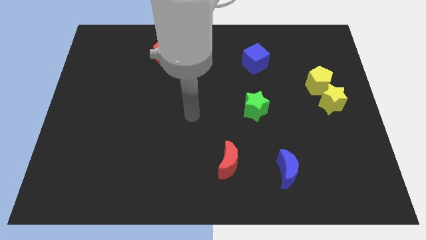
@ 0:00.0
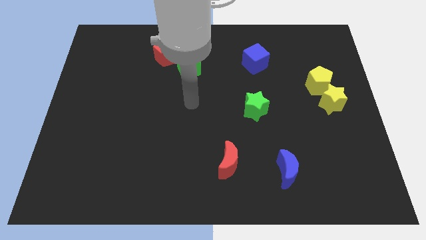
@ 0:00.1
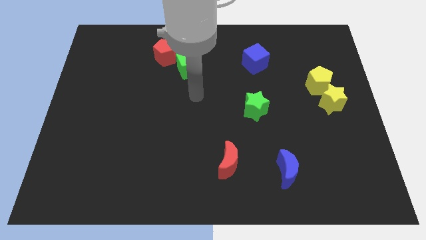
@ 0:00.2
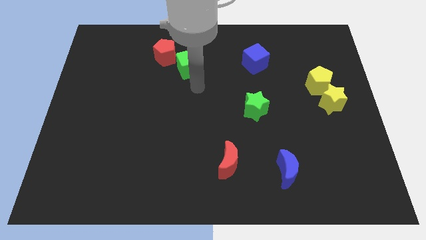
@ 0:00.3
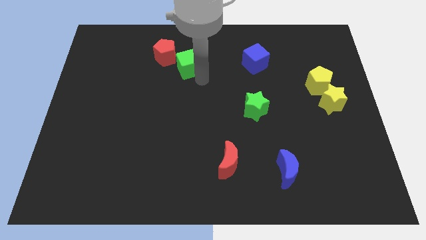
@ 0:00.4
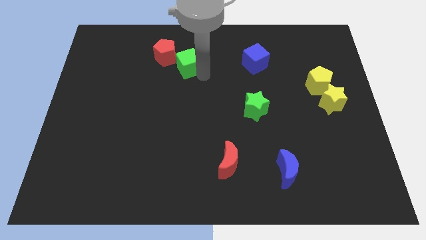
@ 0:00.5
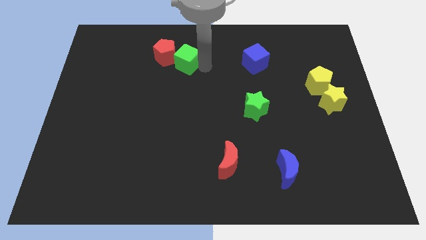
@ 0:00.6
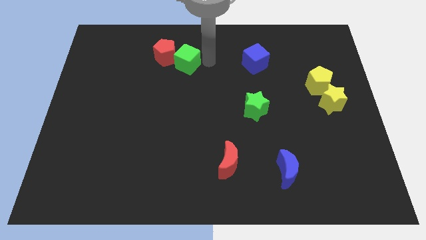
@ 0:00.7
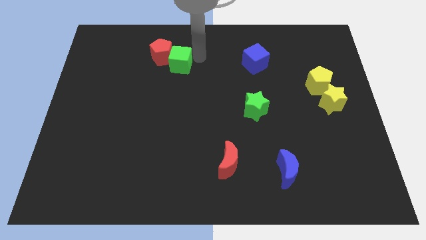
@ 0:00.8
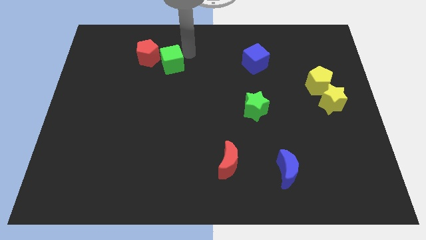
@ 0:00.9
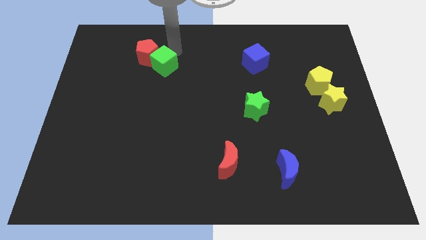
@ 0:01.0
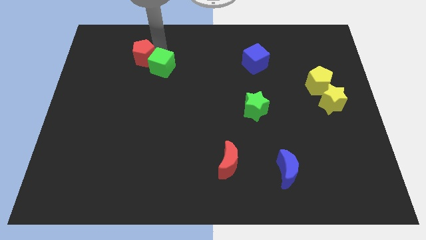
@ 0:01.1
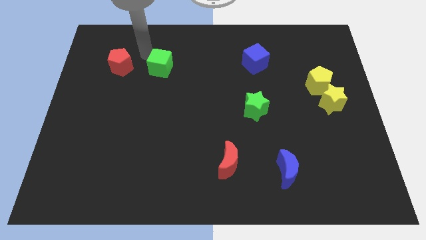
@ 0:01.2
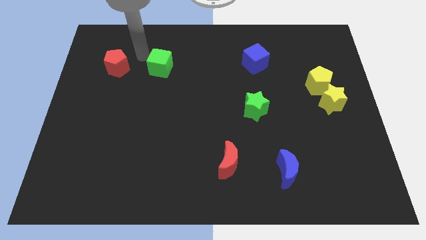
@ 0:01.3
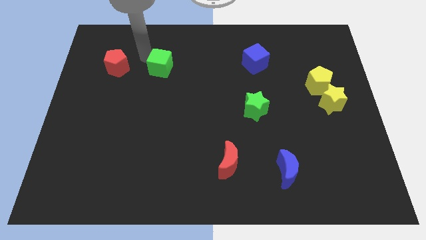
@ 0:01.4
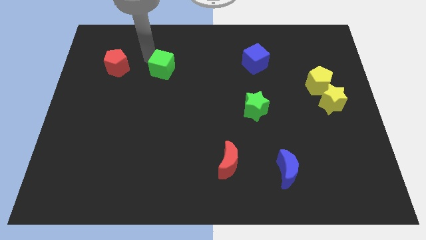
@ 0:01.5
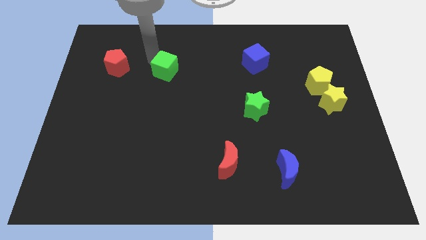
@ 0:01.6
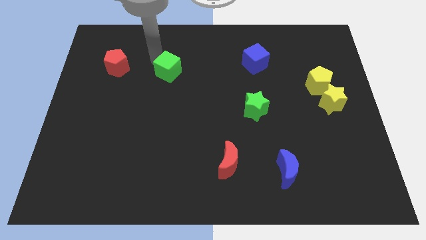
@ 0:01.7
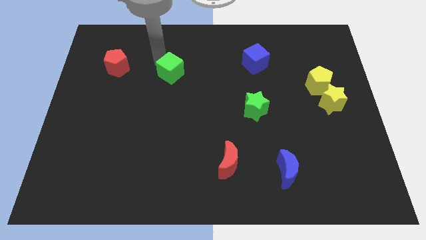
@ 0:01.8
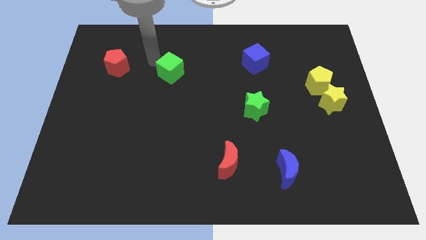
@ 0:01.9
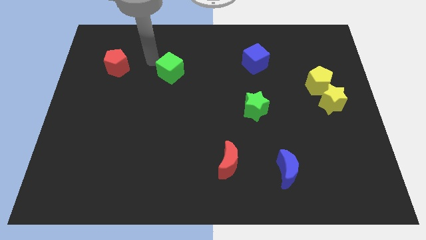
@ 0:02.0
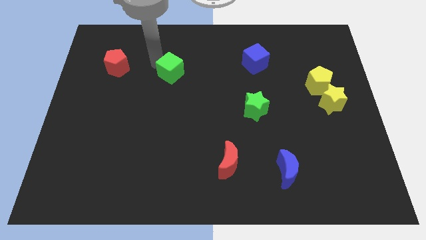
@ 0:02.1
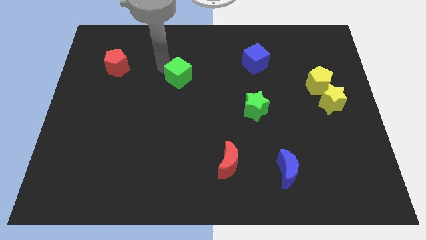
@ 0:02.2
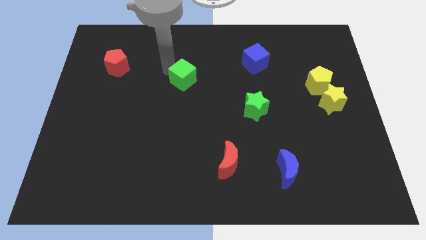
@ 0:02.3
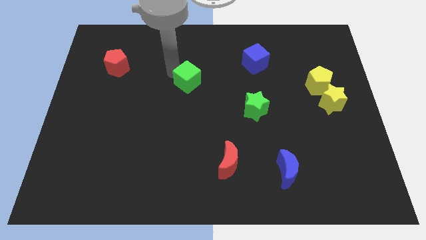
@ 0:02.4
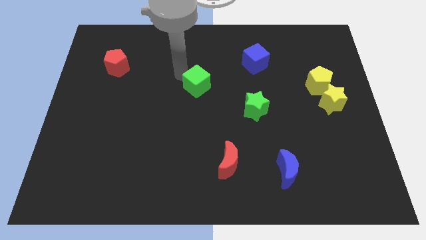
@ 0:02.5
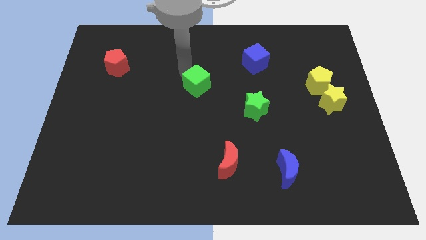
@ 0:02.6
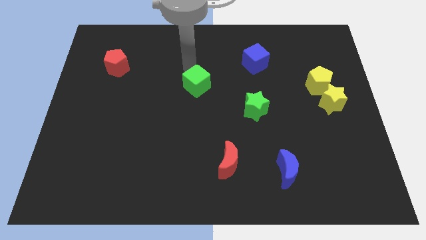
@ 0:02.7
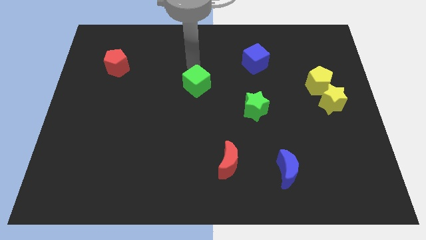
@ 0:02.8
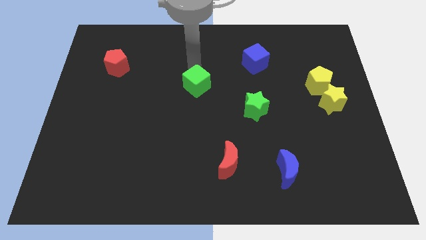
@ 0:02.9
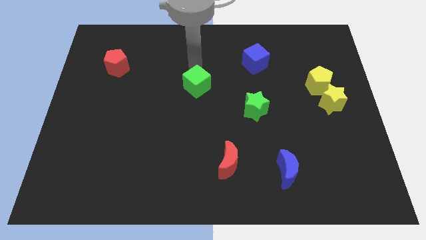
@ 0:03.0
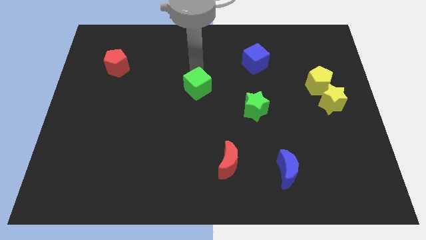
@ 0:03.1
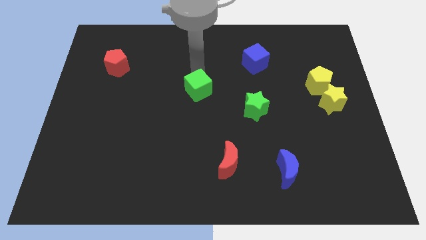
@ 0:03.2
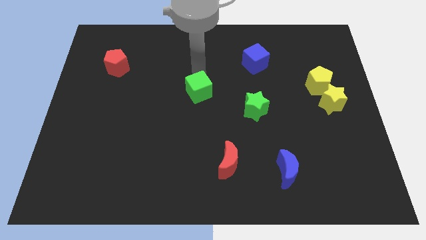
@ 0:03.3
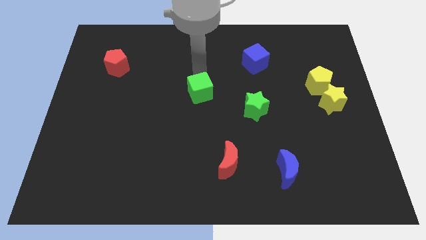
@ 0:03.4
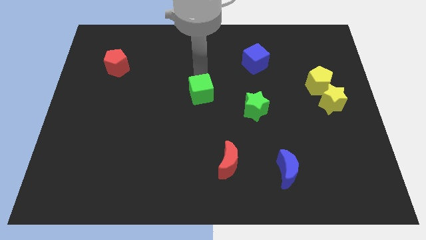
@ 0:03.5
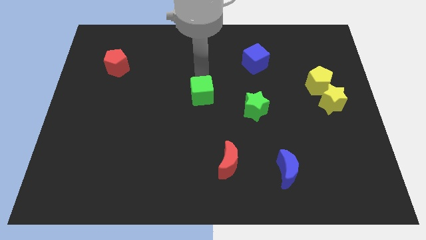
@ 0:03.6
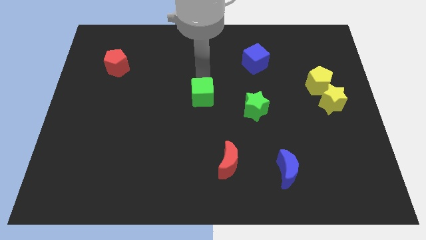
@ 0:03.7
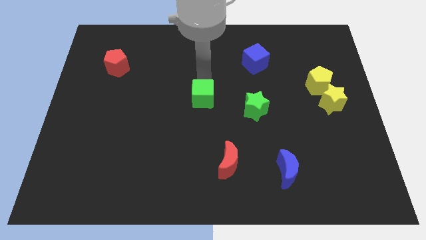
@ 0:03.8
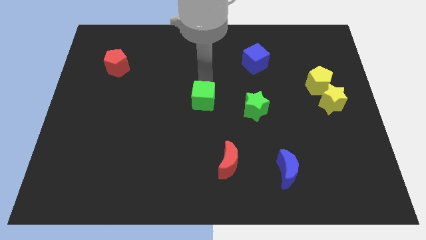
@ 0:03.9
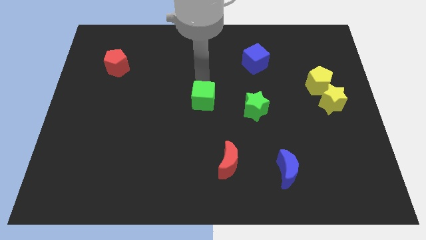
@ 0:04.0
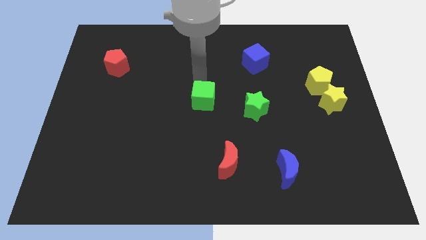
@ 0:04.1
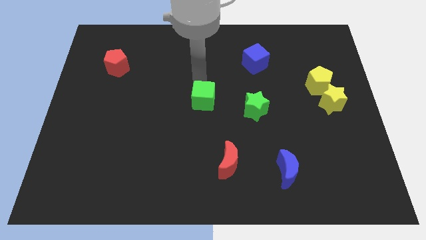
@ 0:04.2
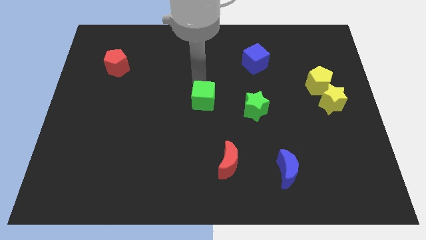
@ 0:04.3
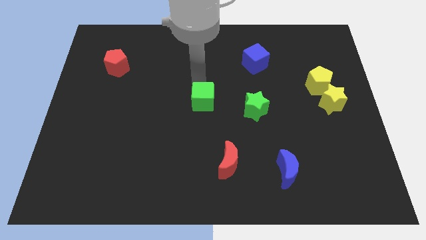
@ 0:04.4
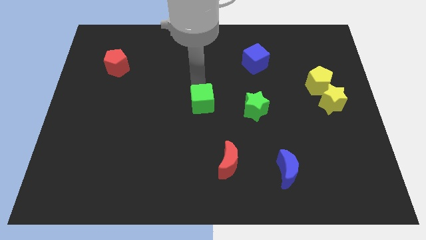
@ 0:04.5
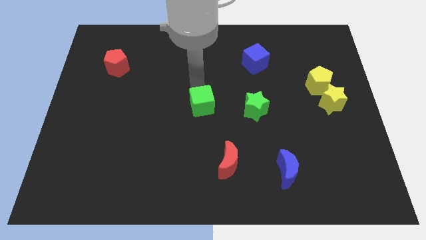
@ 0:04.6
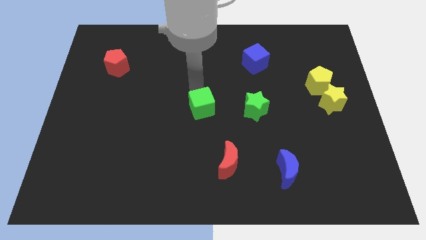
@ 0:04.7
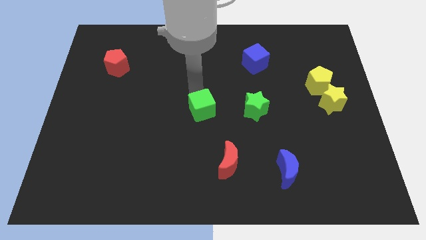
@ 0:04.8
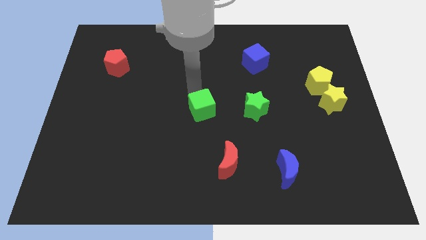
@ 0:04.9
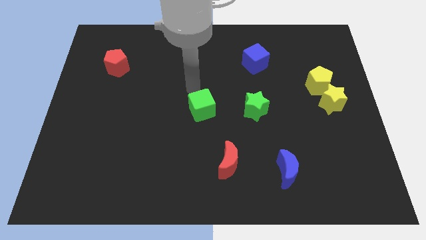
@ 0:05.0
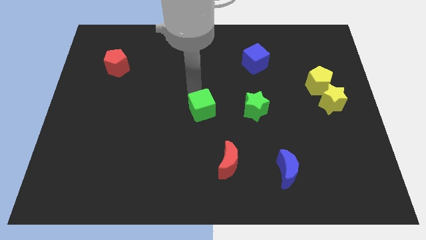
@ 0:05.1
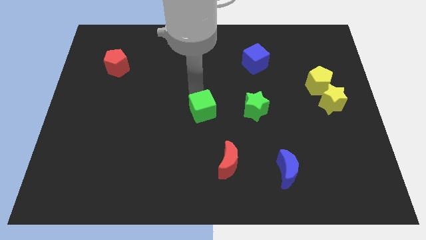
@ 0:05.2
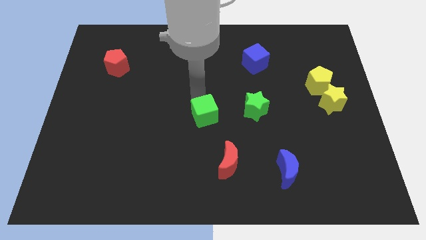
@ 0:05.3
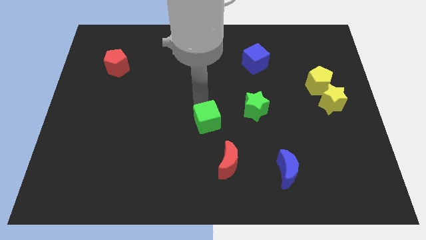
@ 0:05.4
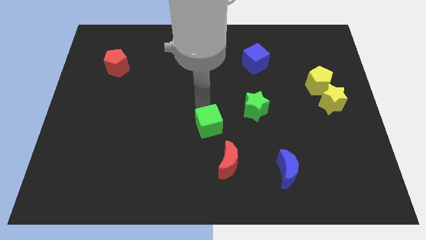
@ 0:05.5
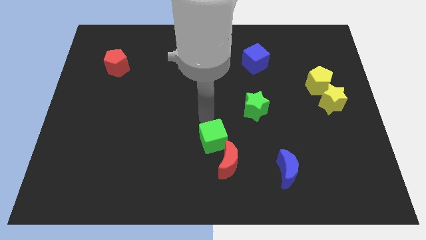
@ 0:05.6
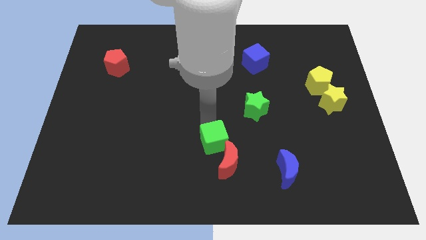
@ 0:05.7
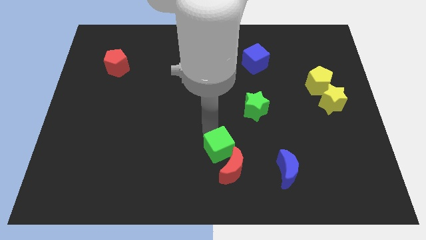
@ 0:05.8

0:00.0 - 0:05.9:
put the green cube close to the red moon

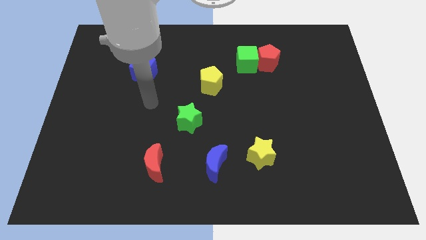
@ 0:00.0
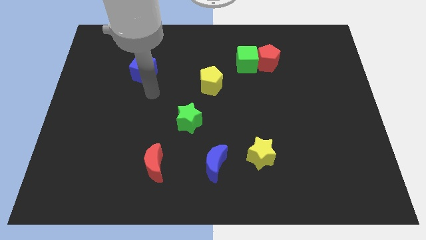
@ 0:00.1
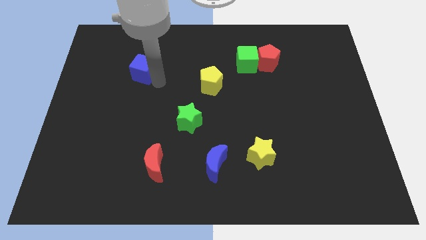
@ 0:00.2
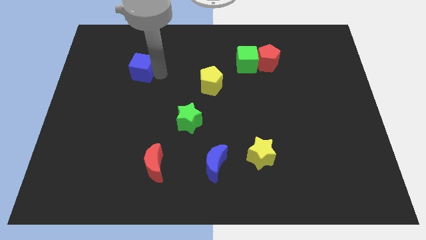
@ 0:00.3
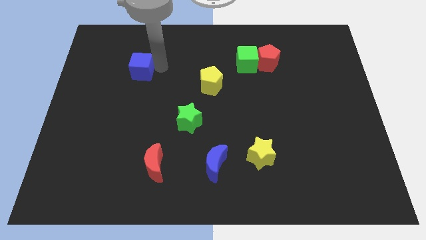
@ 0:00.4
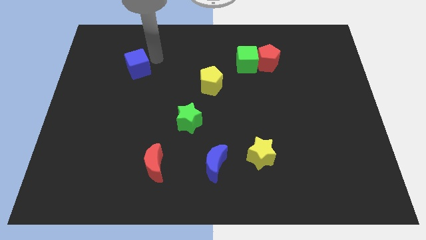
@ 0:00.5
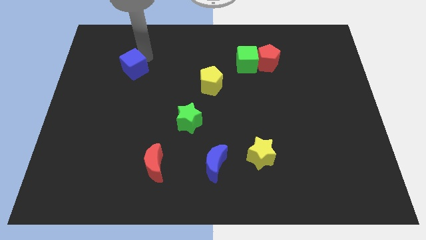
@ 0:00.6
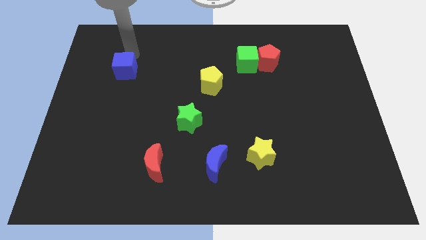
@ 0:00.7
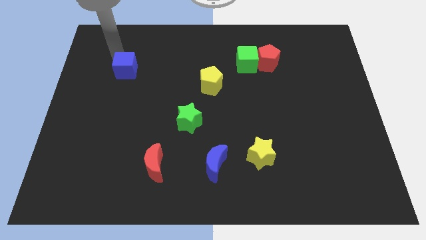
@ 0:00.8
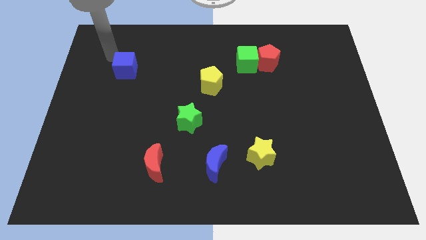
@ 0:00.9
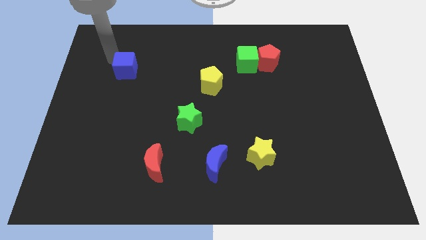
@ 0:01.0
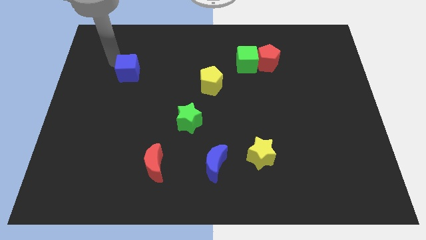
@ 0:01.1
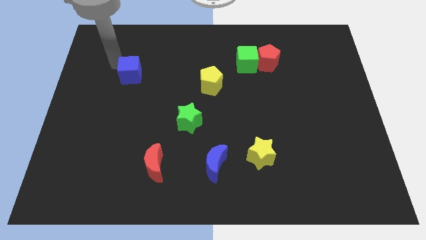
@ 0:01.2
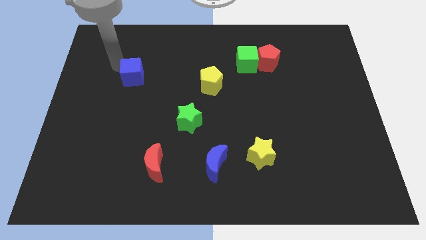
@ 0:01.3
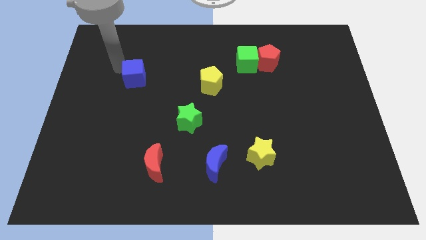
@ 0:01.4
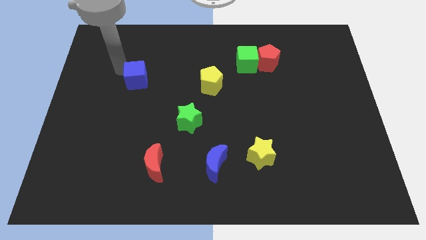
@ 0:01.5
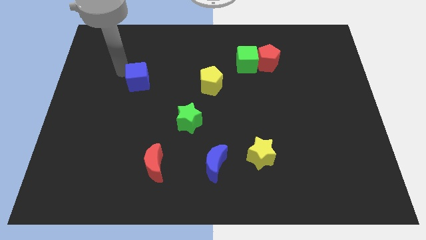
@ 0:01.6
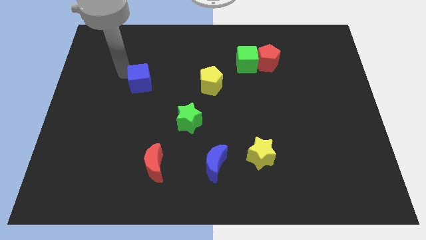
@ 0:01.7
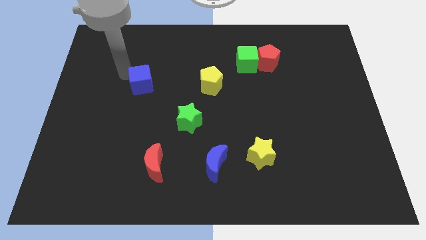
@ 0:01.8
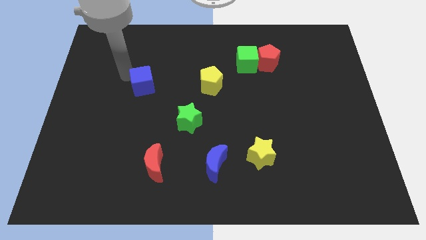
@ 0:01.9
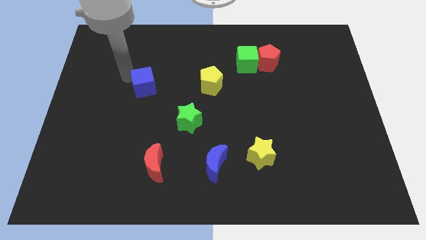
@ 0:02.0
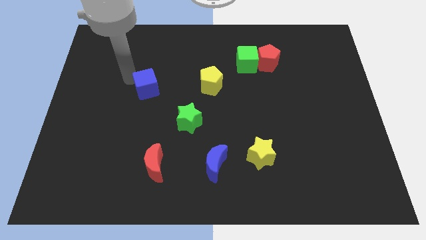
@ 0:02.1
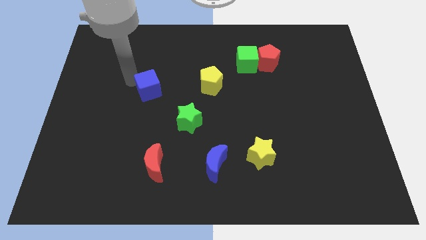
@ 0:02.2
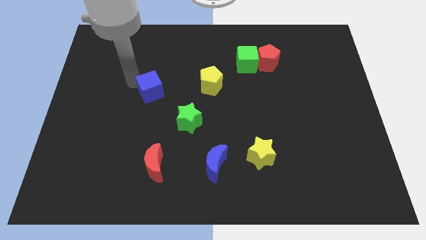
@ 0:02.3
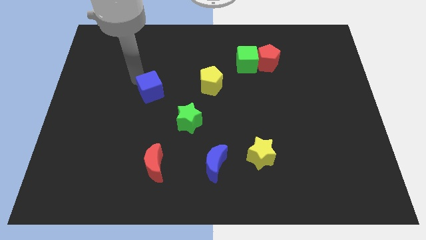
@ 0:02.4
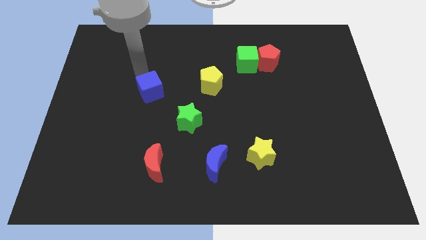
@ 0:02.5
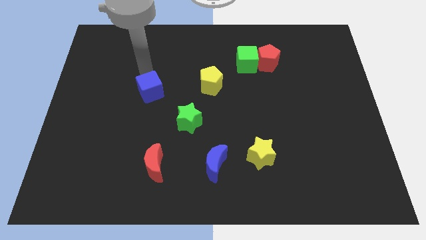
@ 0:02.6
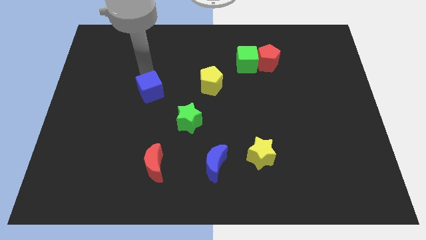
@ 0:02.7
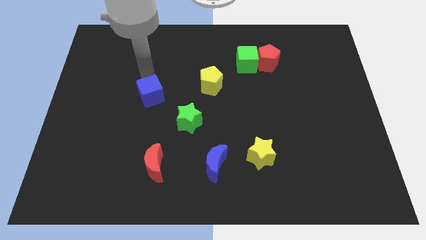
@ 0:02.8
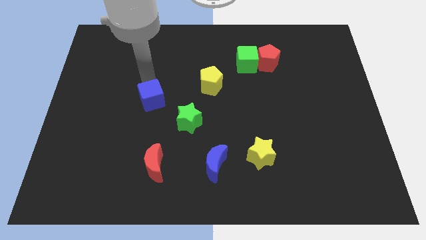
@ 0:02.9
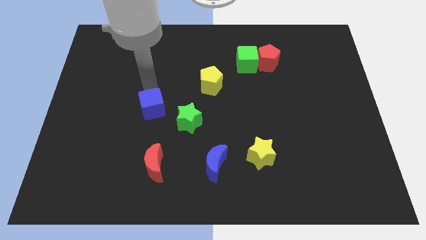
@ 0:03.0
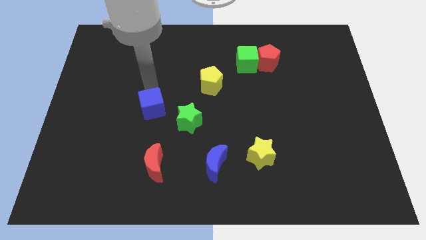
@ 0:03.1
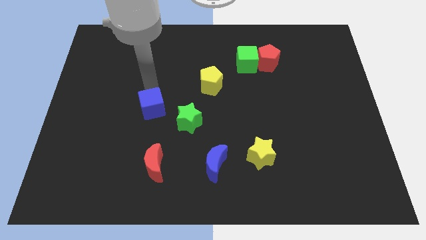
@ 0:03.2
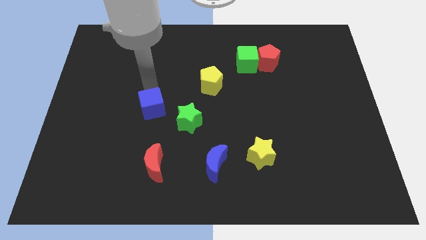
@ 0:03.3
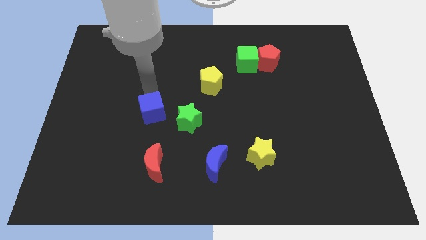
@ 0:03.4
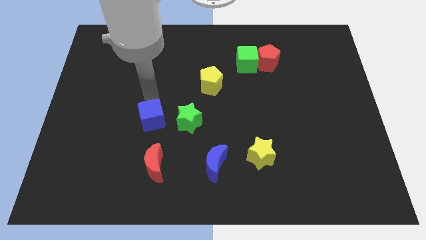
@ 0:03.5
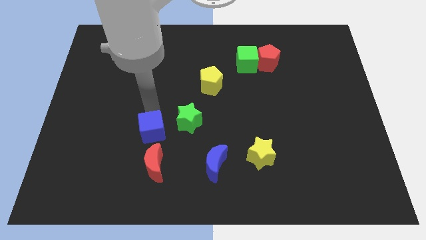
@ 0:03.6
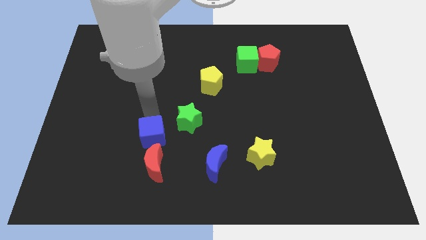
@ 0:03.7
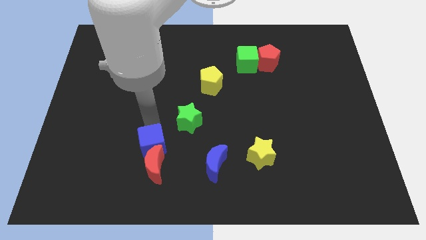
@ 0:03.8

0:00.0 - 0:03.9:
put the blue cube close to the red moon
